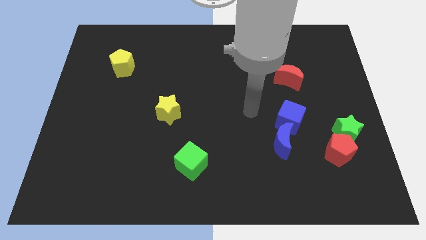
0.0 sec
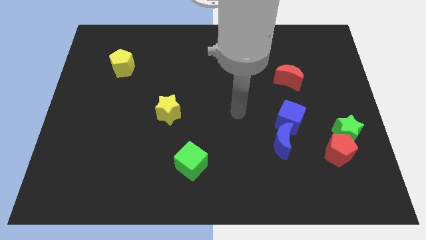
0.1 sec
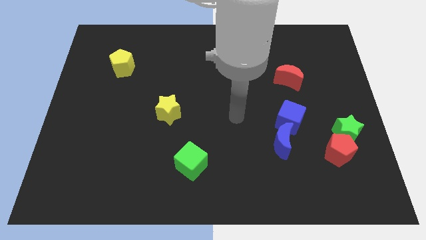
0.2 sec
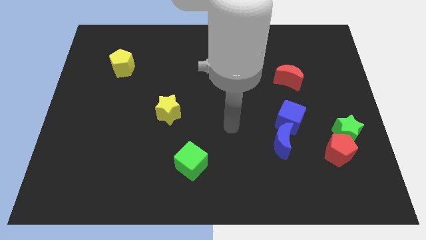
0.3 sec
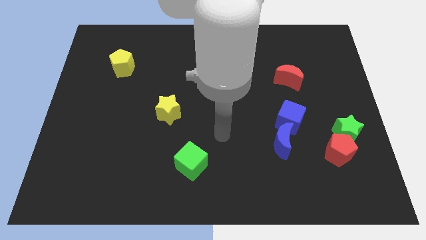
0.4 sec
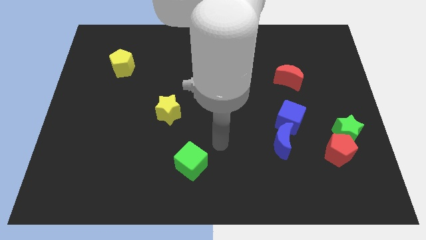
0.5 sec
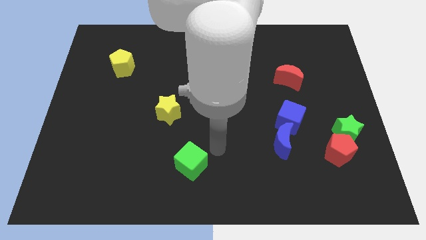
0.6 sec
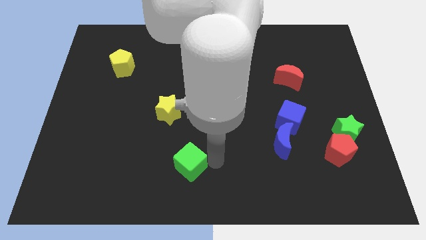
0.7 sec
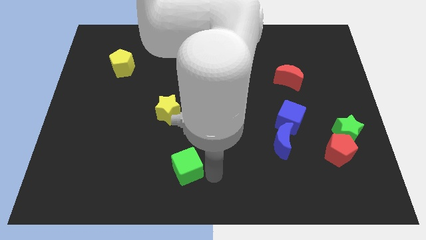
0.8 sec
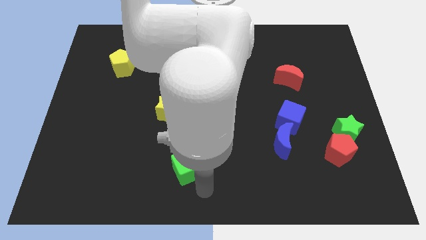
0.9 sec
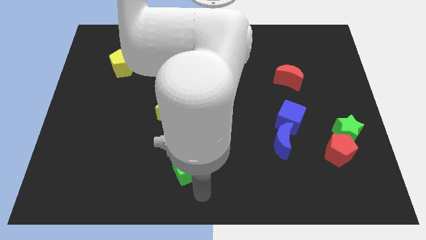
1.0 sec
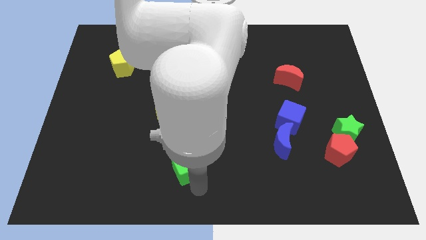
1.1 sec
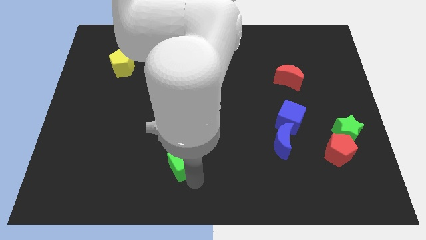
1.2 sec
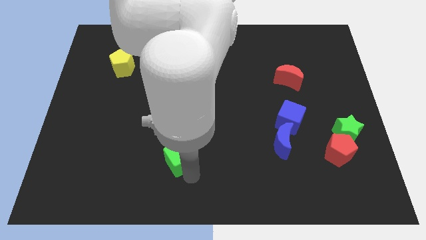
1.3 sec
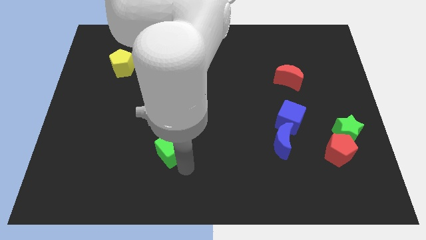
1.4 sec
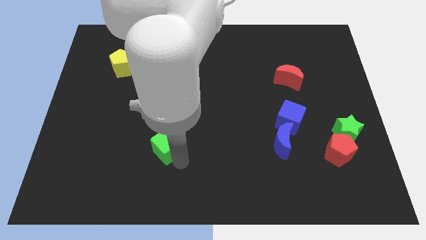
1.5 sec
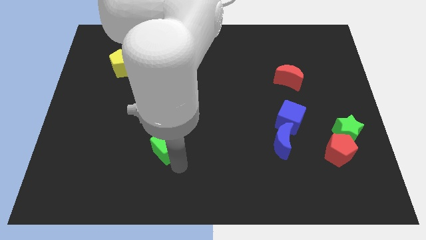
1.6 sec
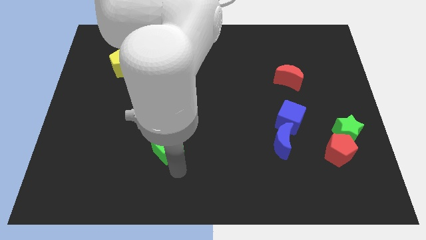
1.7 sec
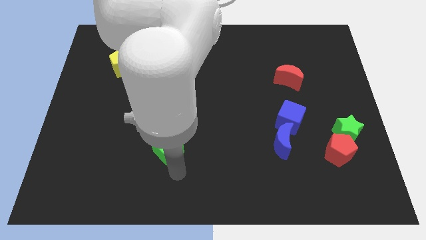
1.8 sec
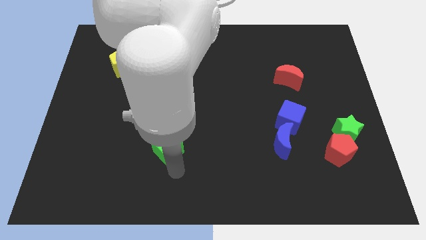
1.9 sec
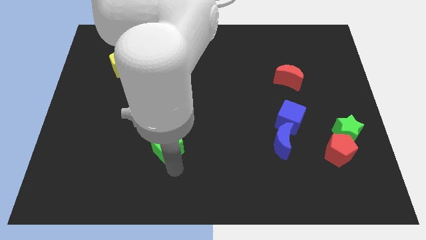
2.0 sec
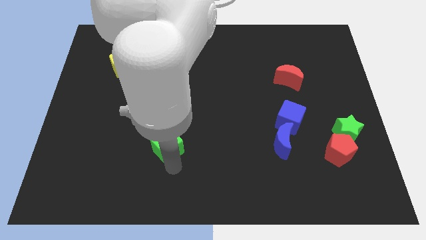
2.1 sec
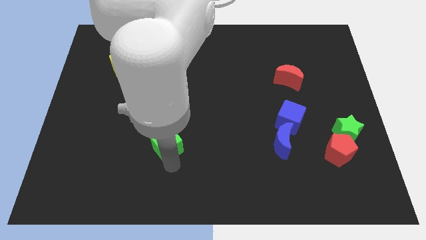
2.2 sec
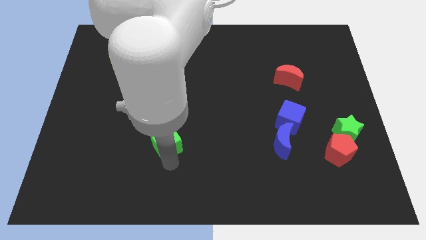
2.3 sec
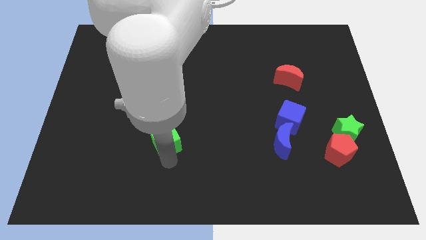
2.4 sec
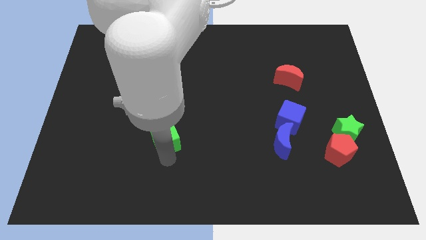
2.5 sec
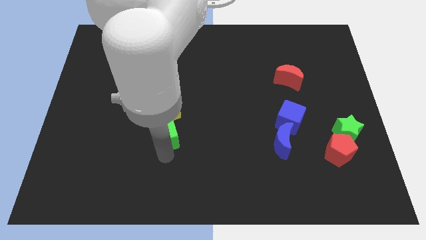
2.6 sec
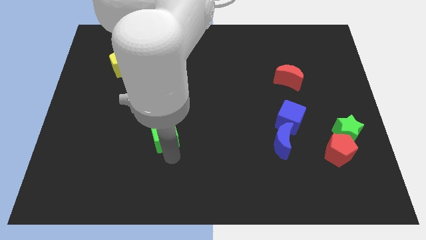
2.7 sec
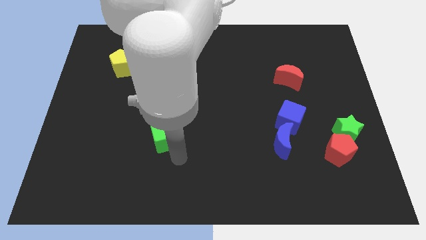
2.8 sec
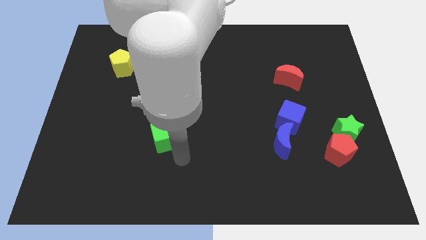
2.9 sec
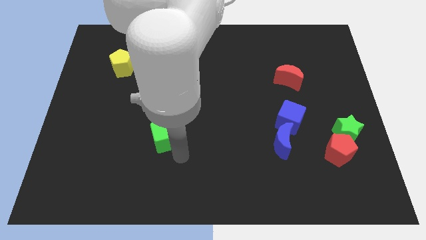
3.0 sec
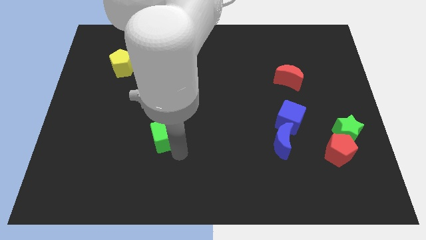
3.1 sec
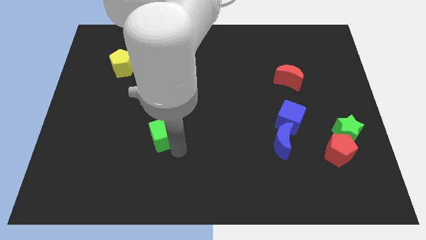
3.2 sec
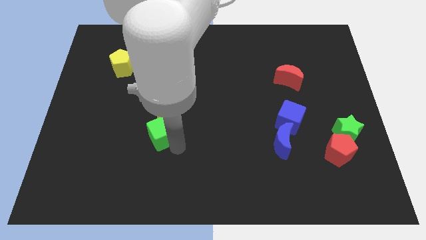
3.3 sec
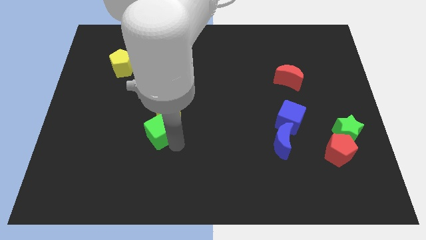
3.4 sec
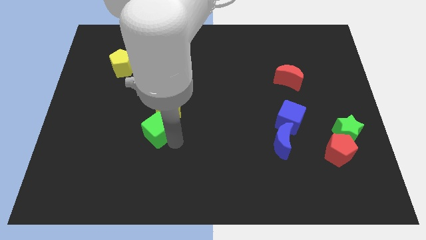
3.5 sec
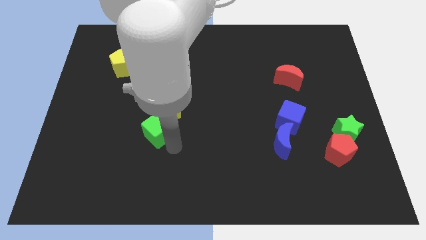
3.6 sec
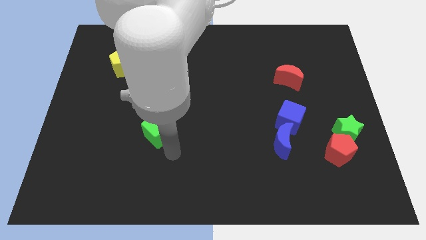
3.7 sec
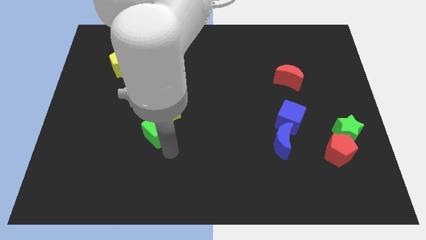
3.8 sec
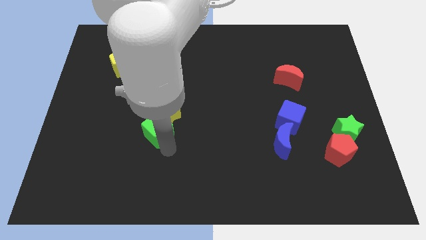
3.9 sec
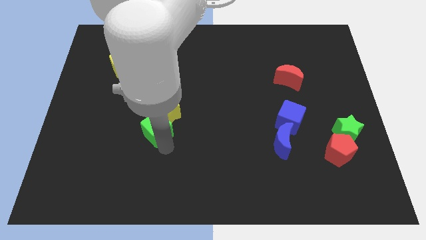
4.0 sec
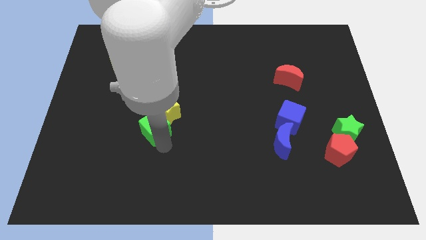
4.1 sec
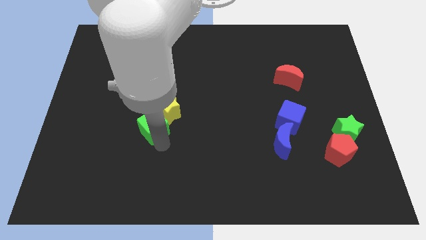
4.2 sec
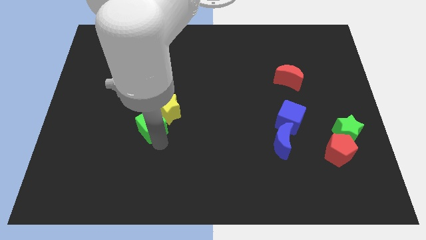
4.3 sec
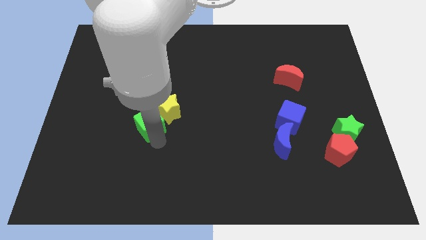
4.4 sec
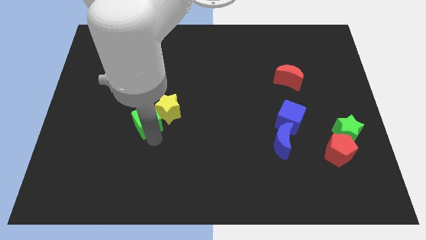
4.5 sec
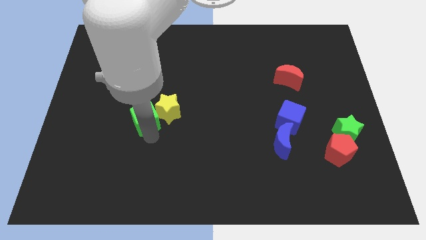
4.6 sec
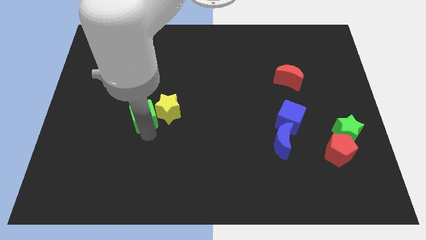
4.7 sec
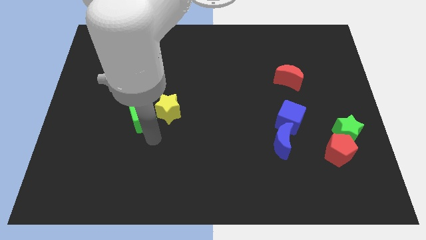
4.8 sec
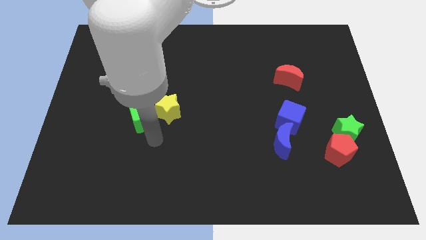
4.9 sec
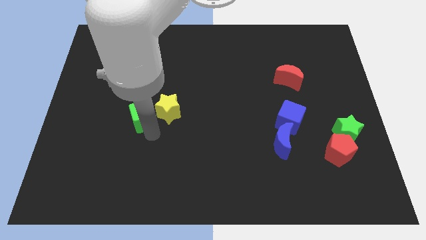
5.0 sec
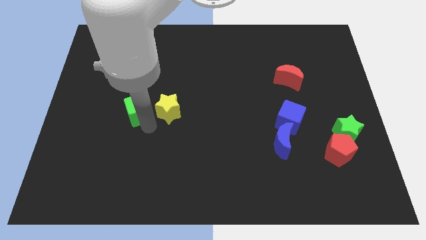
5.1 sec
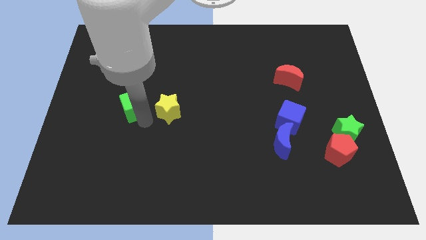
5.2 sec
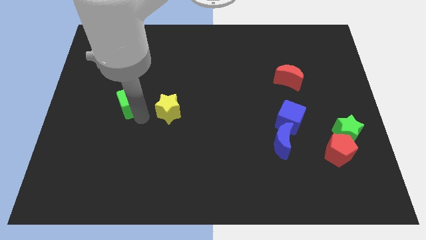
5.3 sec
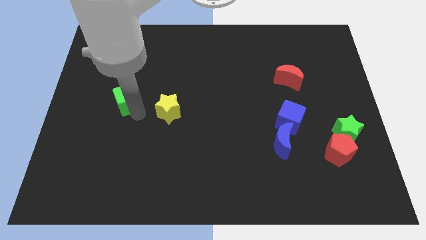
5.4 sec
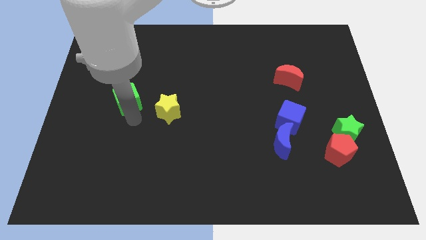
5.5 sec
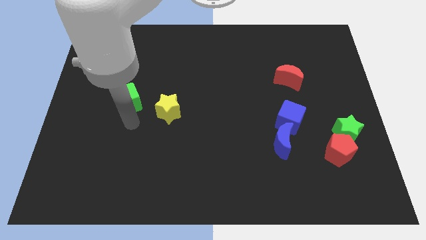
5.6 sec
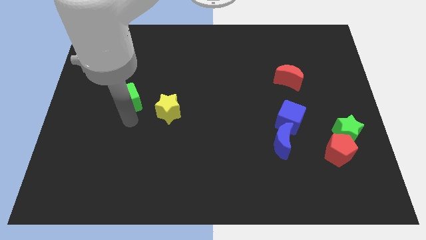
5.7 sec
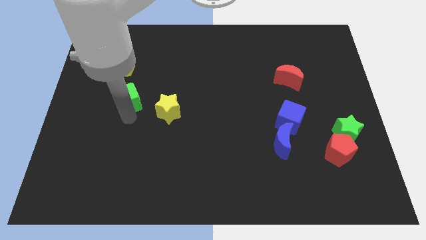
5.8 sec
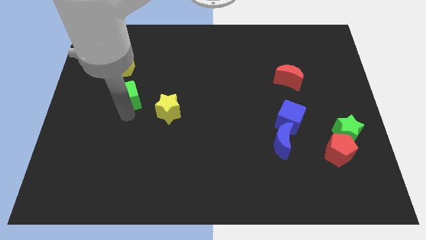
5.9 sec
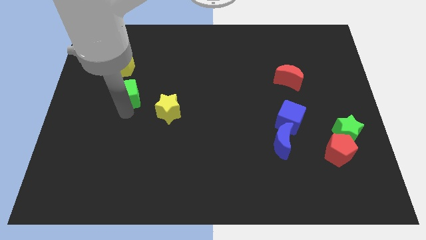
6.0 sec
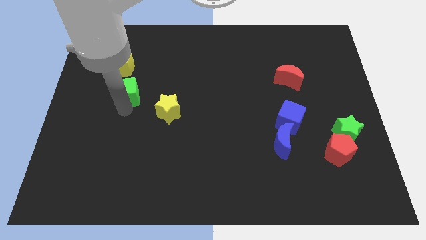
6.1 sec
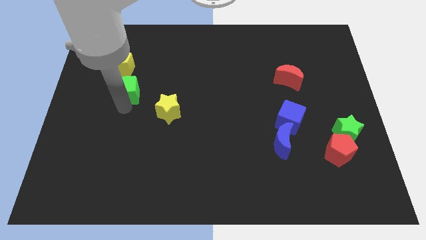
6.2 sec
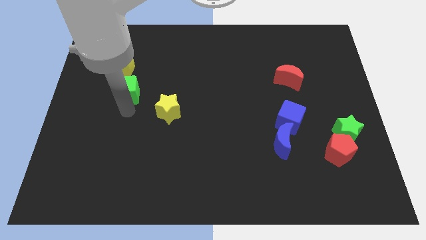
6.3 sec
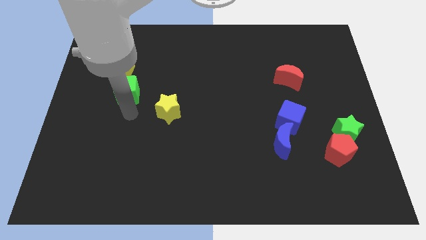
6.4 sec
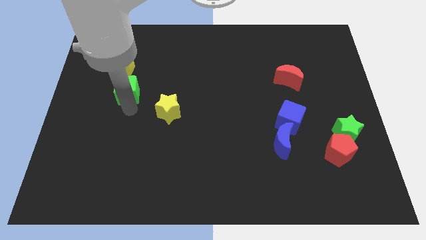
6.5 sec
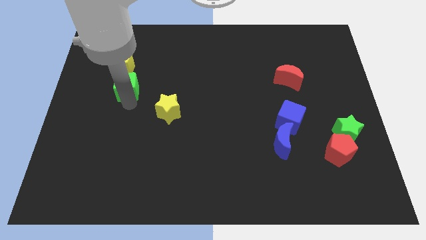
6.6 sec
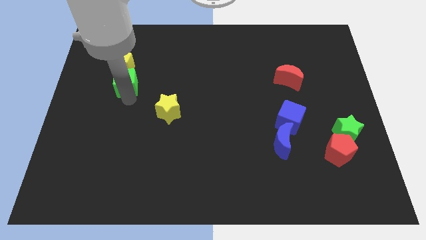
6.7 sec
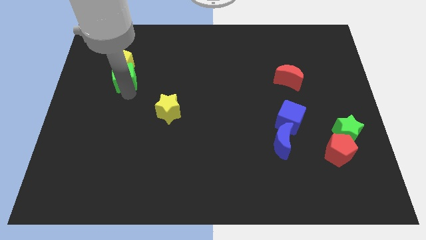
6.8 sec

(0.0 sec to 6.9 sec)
move the green cube next to the yellow pentagon
